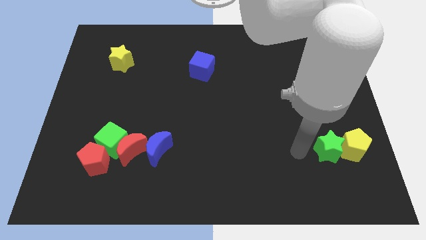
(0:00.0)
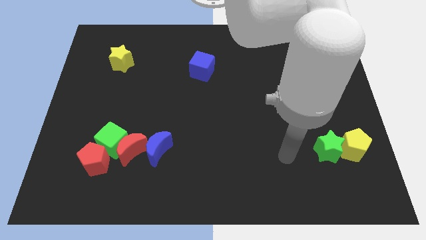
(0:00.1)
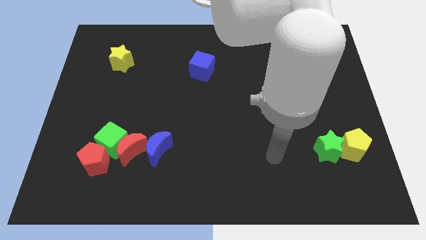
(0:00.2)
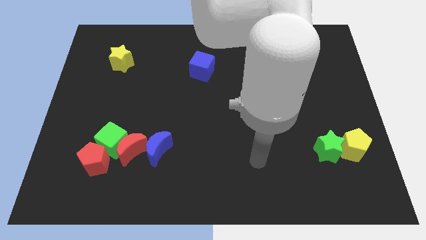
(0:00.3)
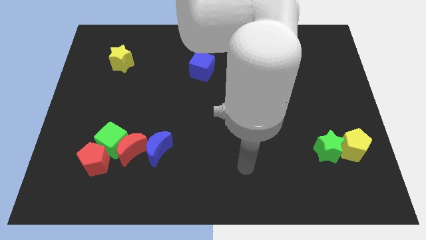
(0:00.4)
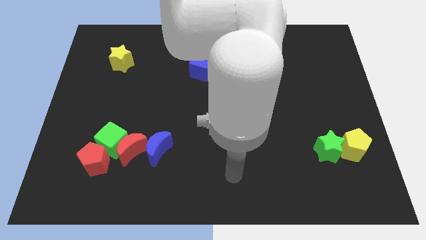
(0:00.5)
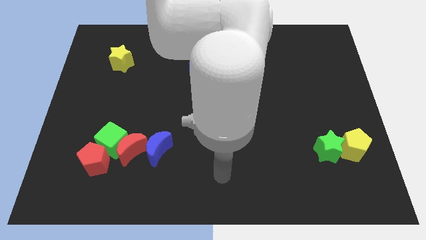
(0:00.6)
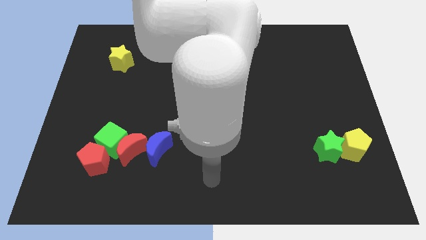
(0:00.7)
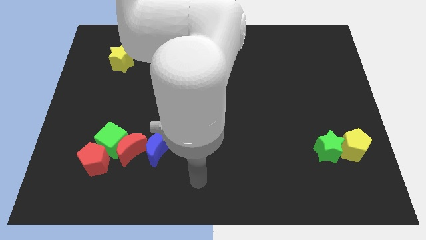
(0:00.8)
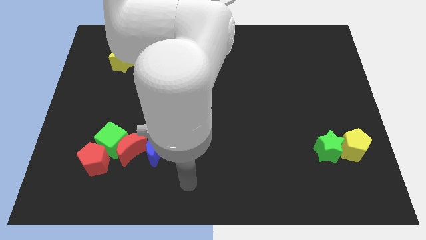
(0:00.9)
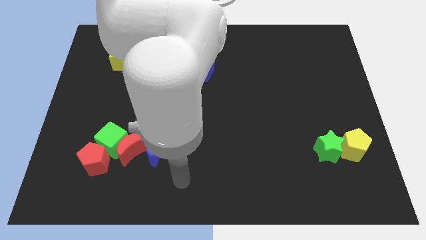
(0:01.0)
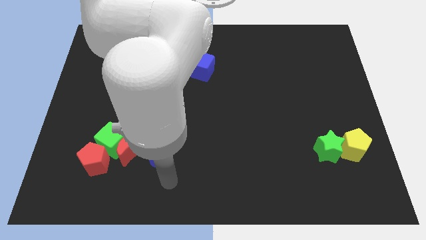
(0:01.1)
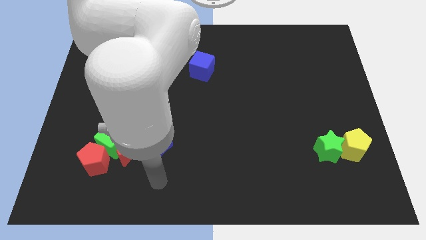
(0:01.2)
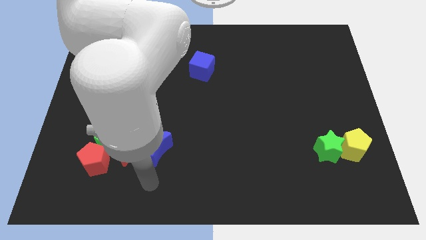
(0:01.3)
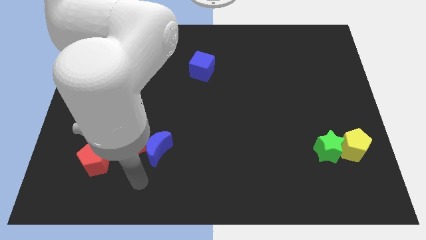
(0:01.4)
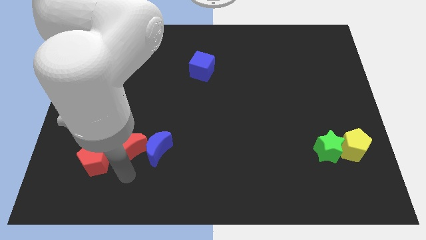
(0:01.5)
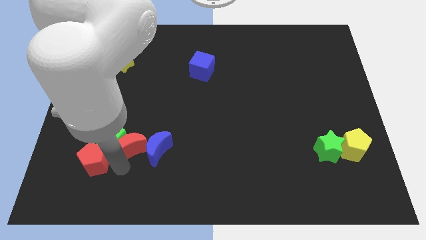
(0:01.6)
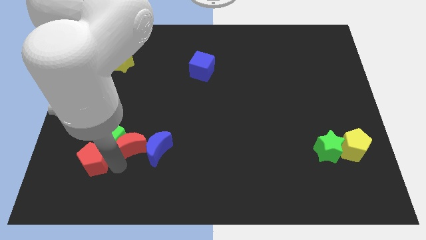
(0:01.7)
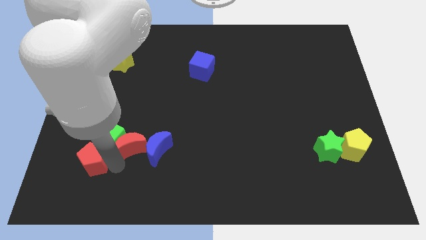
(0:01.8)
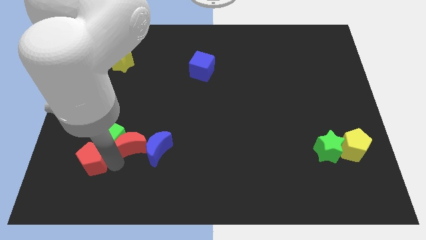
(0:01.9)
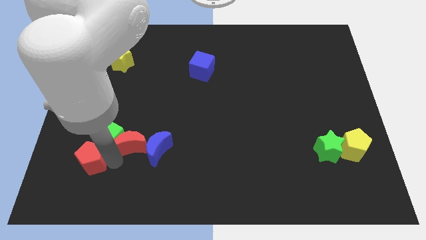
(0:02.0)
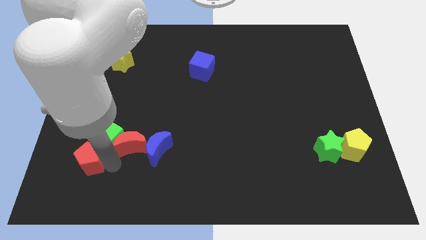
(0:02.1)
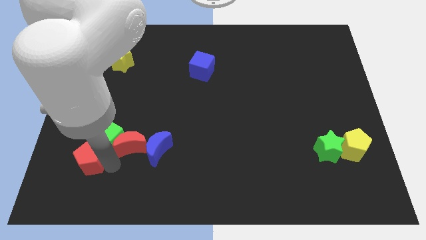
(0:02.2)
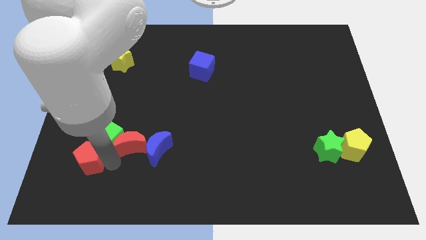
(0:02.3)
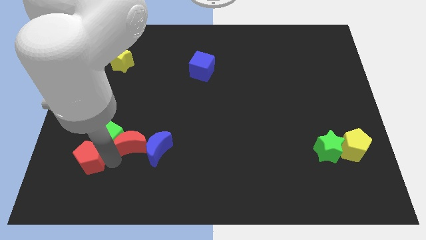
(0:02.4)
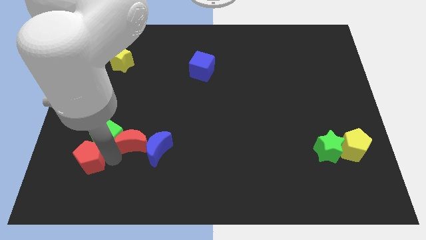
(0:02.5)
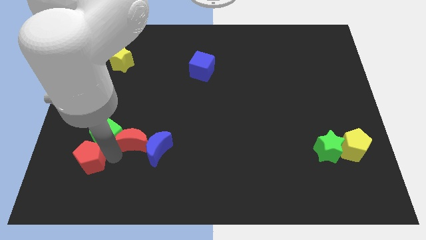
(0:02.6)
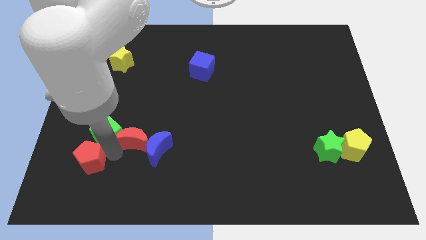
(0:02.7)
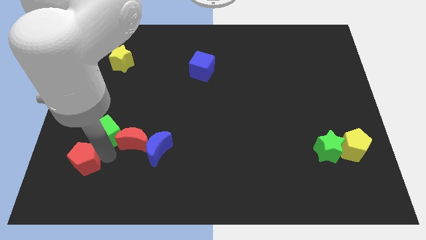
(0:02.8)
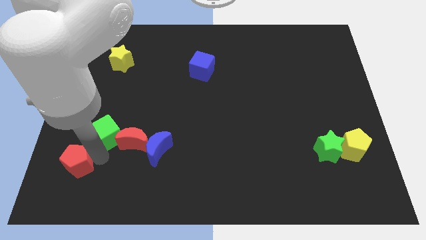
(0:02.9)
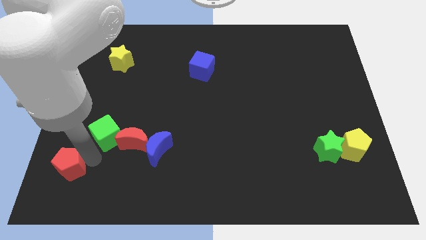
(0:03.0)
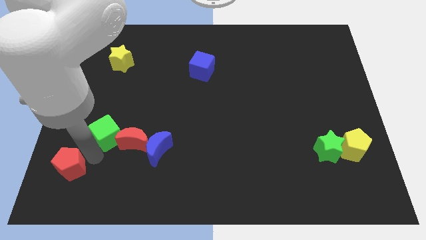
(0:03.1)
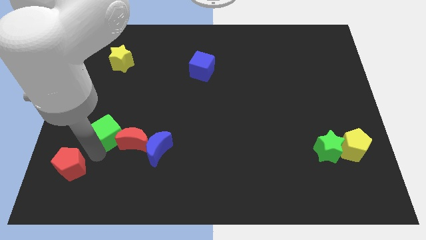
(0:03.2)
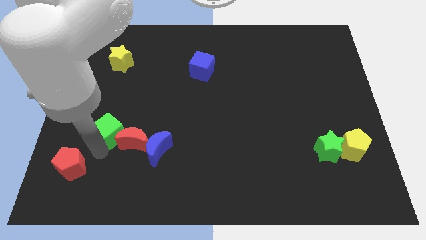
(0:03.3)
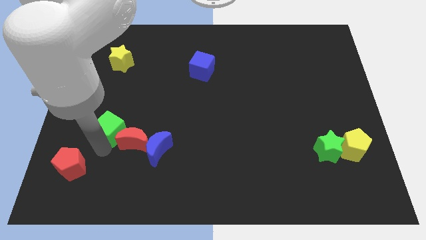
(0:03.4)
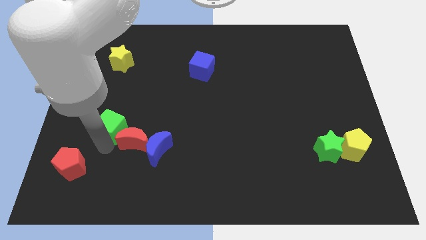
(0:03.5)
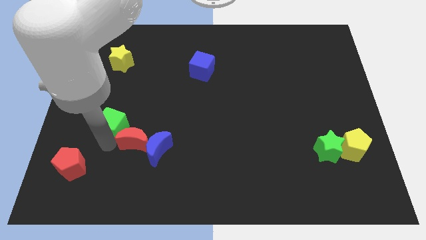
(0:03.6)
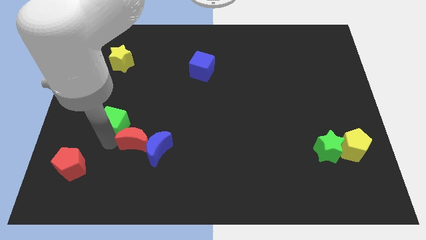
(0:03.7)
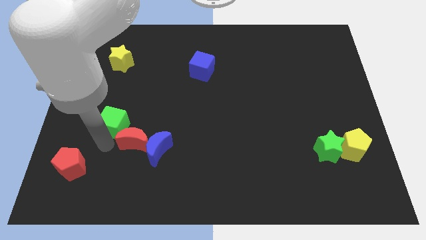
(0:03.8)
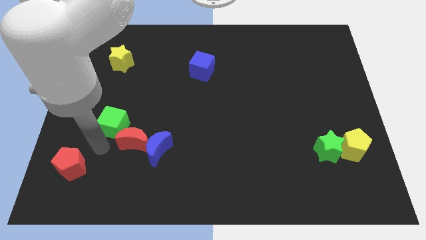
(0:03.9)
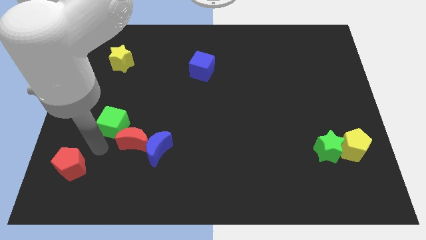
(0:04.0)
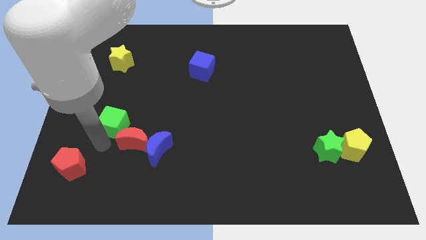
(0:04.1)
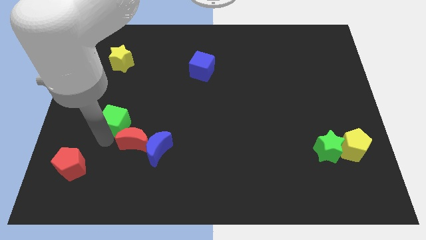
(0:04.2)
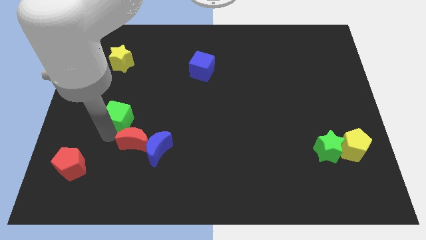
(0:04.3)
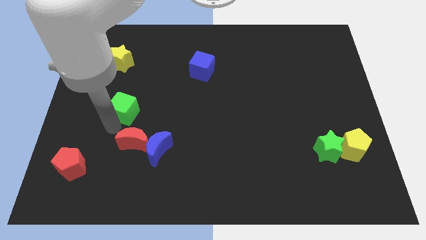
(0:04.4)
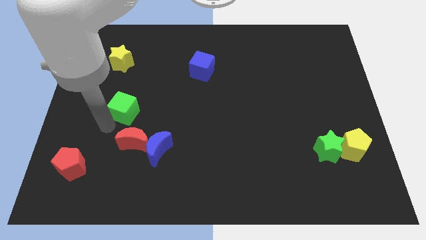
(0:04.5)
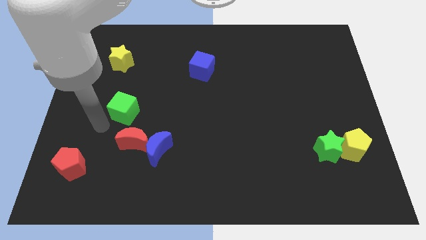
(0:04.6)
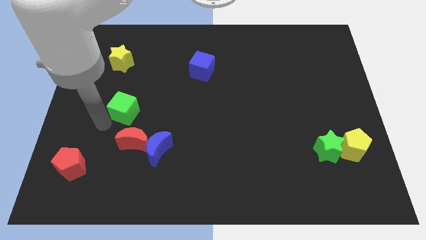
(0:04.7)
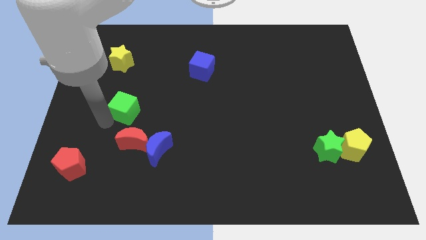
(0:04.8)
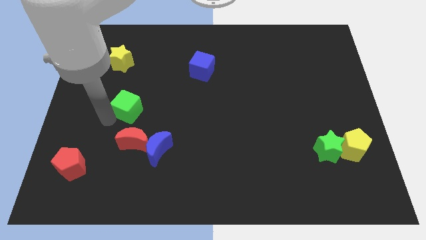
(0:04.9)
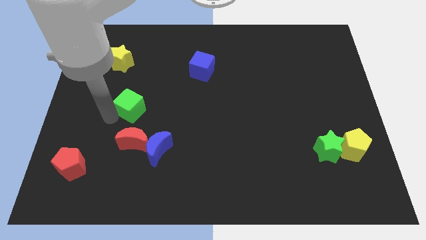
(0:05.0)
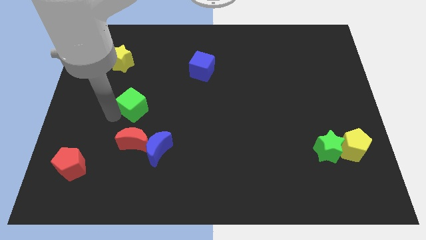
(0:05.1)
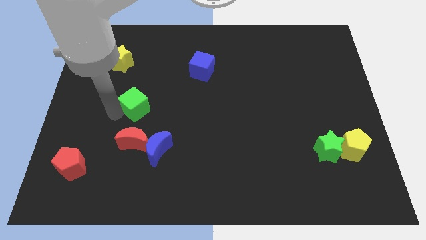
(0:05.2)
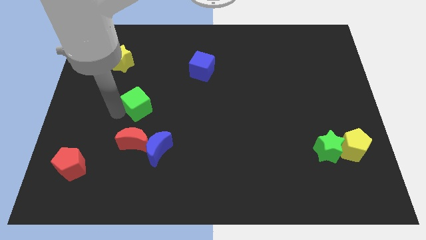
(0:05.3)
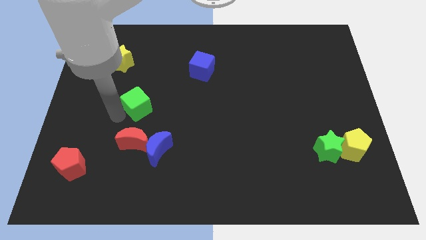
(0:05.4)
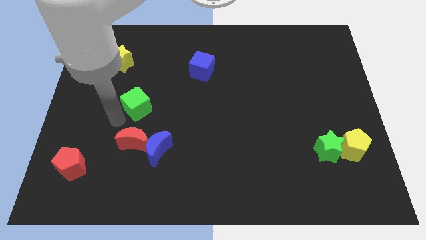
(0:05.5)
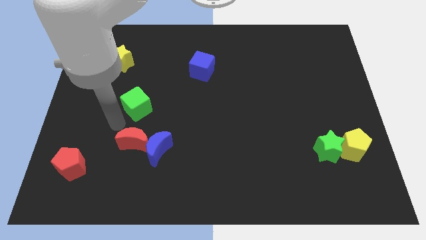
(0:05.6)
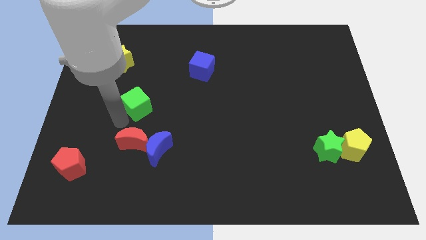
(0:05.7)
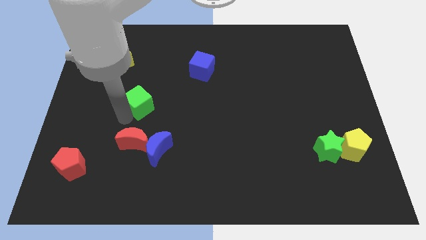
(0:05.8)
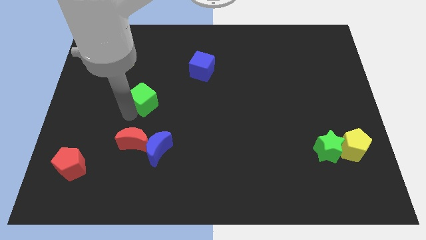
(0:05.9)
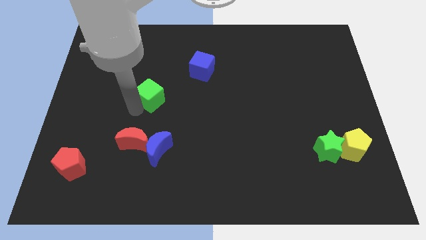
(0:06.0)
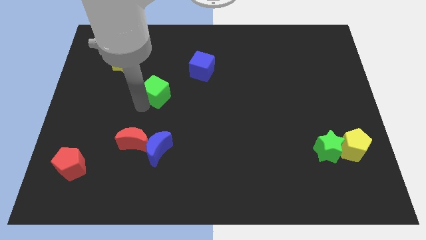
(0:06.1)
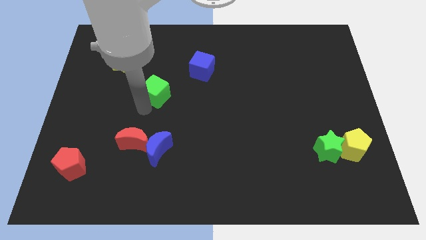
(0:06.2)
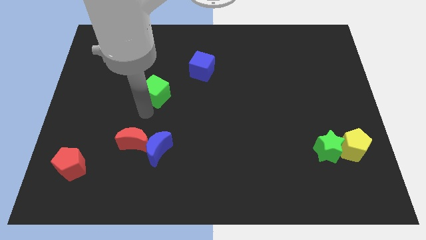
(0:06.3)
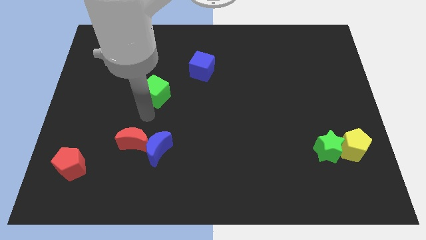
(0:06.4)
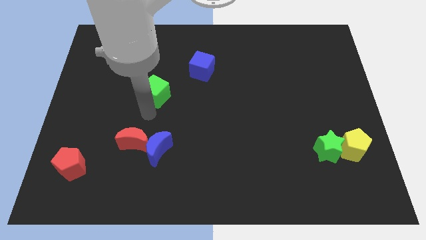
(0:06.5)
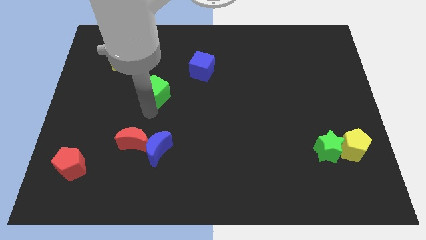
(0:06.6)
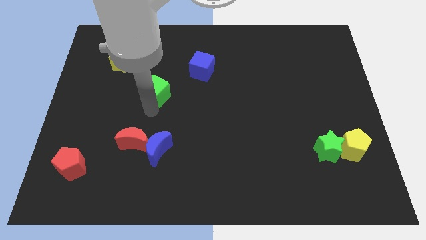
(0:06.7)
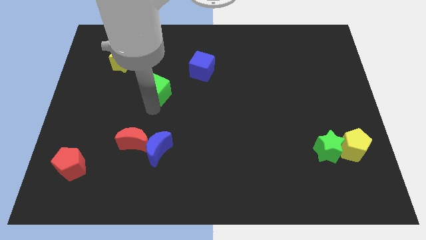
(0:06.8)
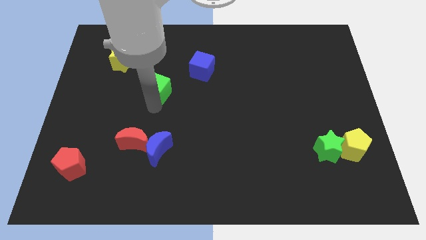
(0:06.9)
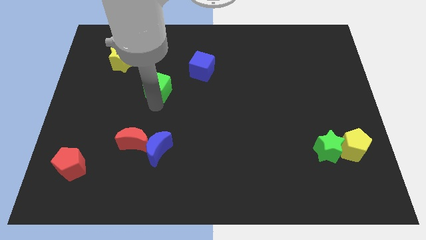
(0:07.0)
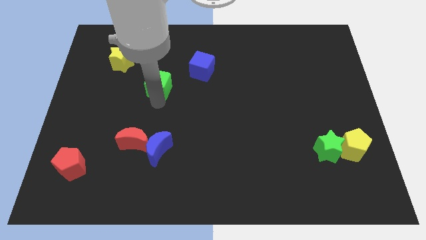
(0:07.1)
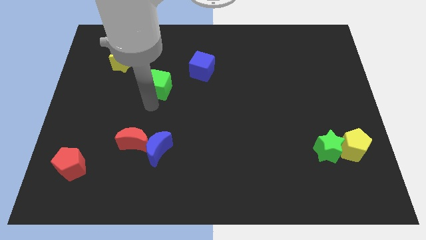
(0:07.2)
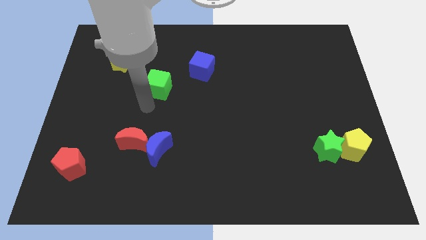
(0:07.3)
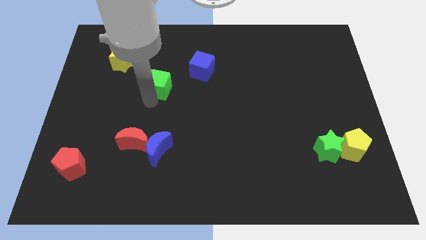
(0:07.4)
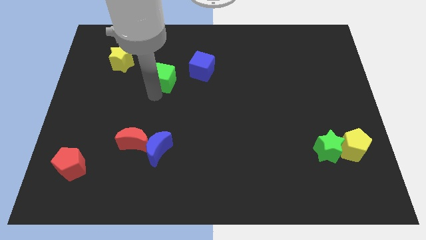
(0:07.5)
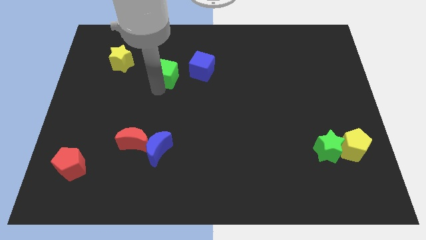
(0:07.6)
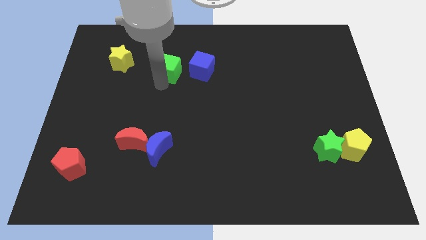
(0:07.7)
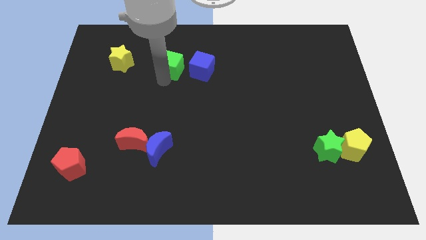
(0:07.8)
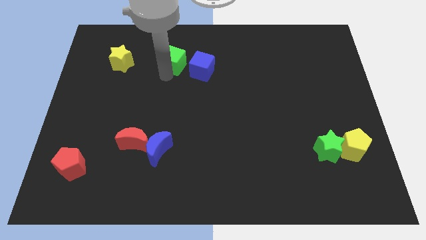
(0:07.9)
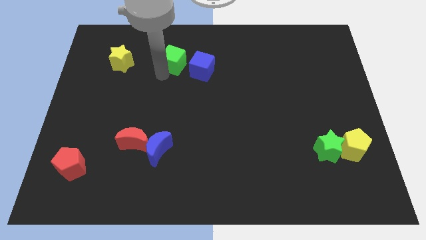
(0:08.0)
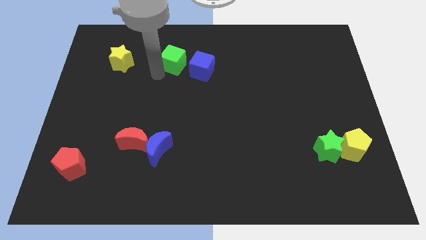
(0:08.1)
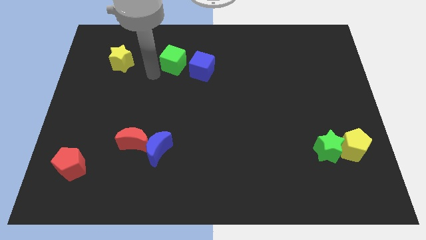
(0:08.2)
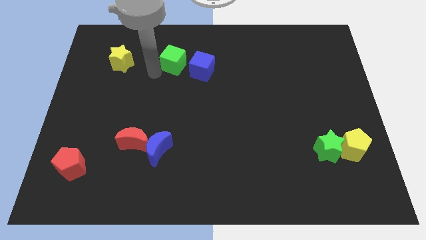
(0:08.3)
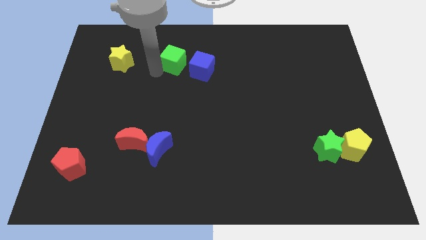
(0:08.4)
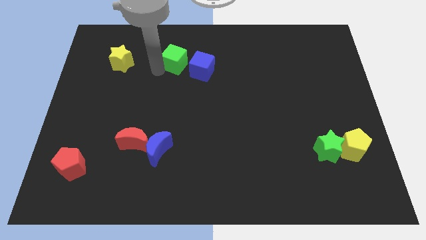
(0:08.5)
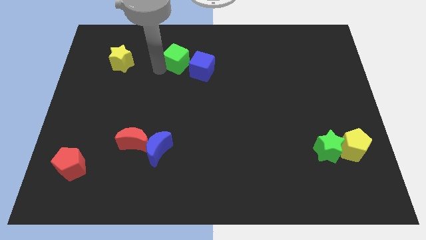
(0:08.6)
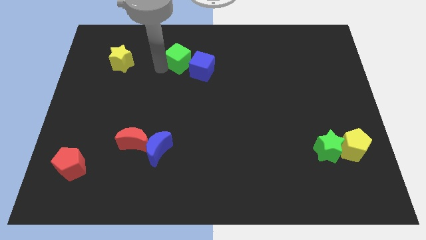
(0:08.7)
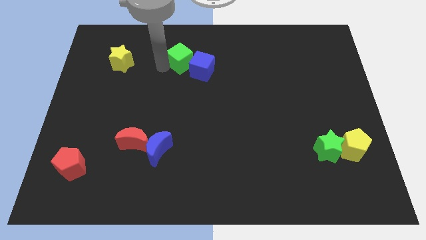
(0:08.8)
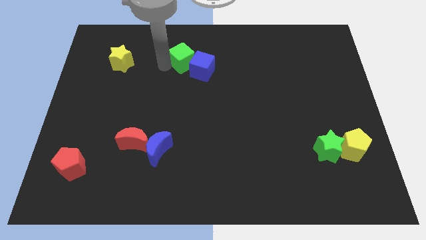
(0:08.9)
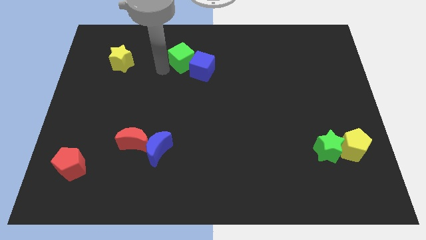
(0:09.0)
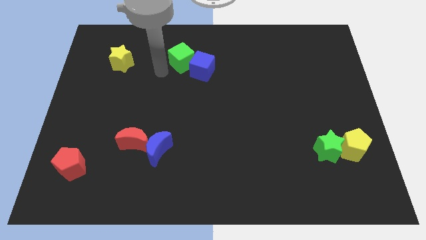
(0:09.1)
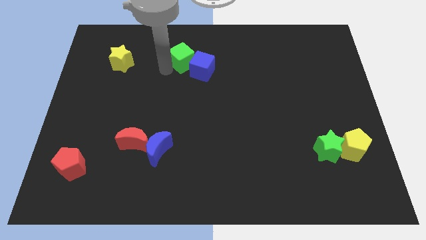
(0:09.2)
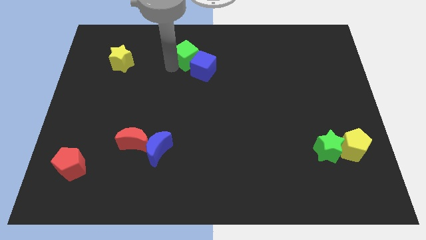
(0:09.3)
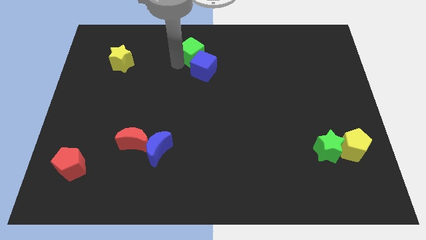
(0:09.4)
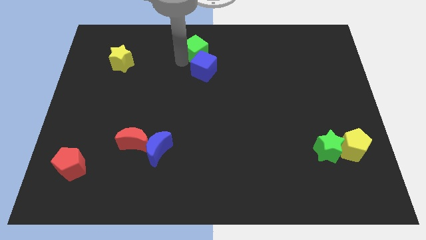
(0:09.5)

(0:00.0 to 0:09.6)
move the green cube to the towards your base
